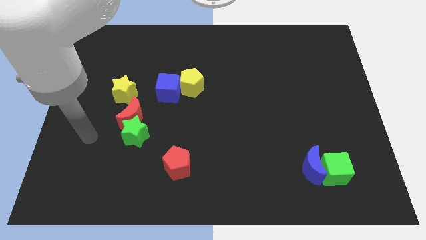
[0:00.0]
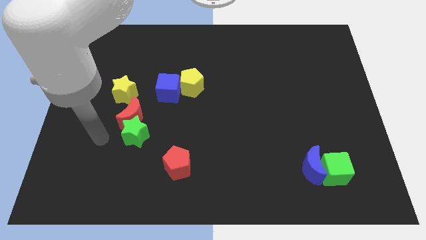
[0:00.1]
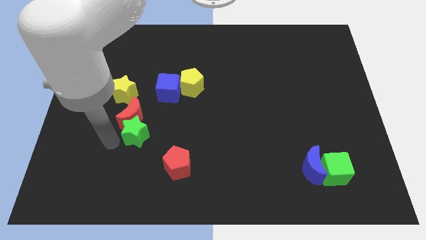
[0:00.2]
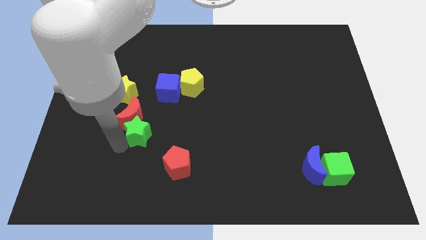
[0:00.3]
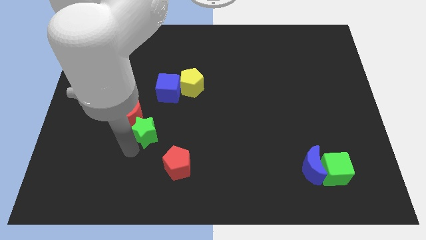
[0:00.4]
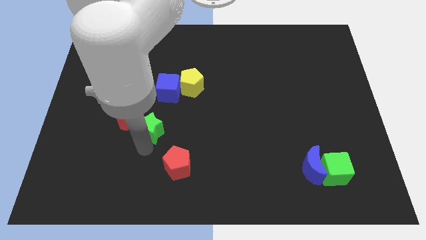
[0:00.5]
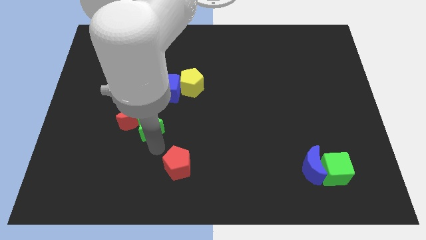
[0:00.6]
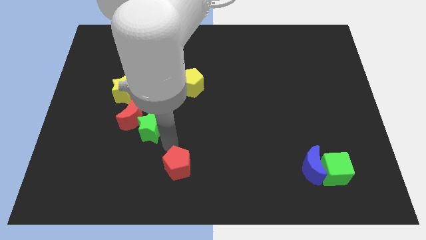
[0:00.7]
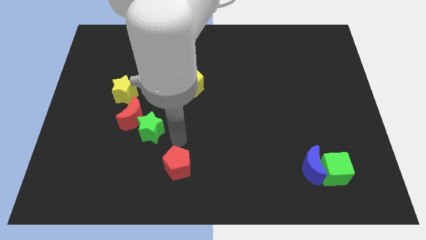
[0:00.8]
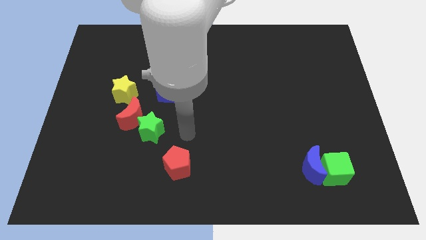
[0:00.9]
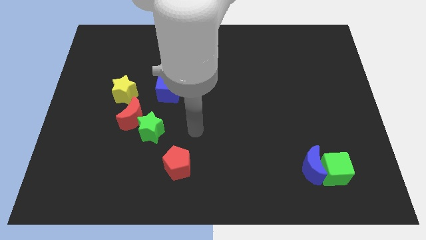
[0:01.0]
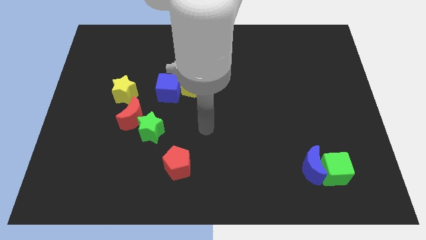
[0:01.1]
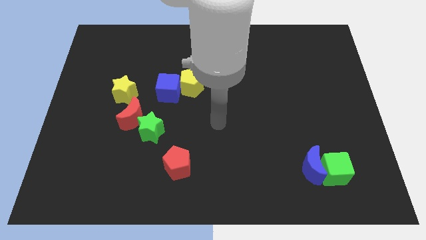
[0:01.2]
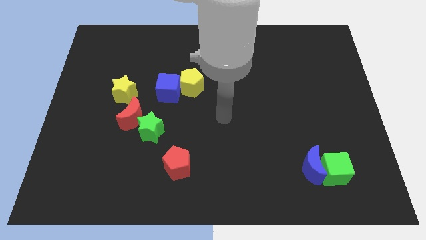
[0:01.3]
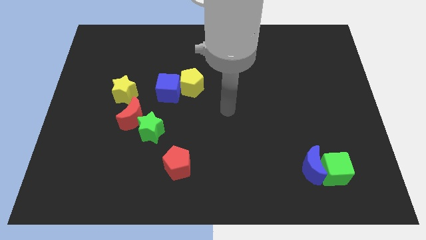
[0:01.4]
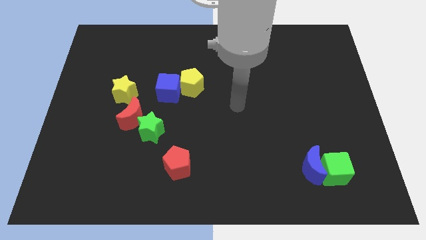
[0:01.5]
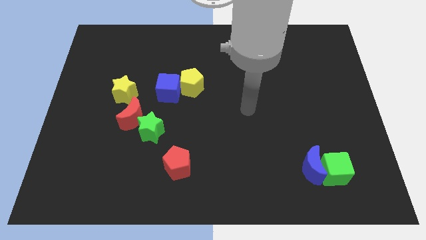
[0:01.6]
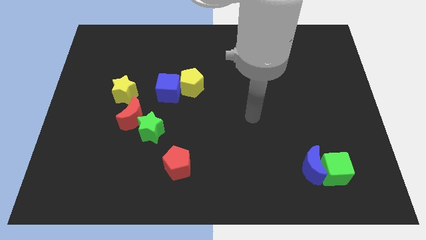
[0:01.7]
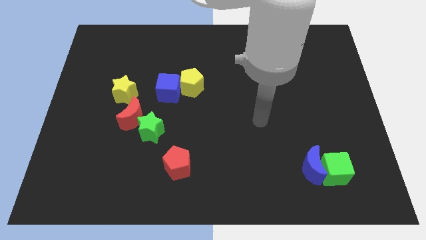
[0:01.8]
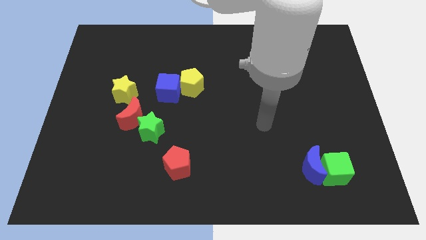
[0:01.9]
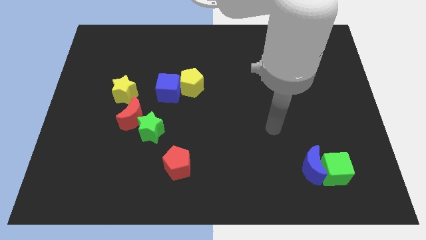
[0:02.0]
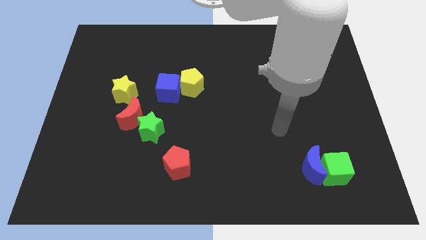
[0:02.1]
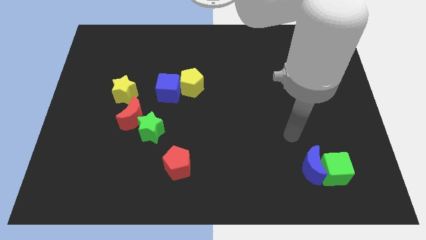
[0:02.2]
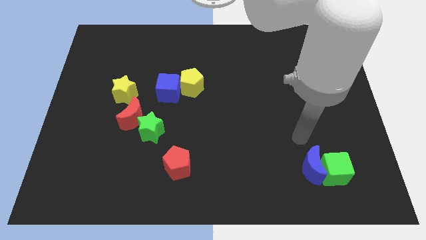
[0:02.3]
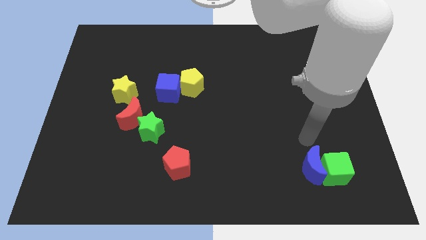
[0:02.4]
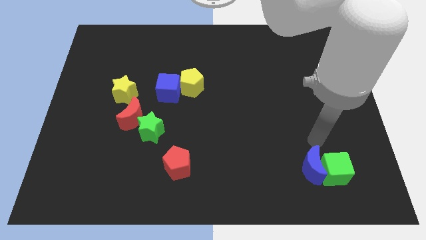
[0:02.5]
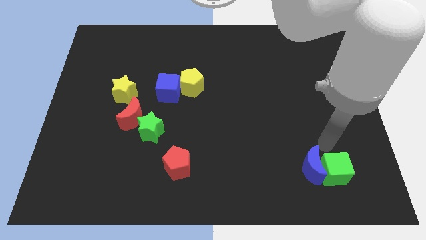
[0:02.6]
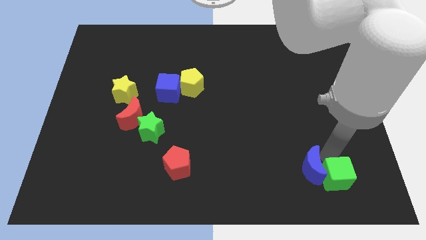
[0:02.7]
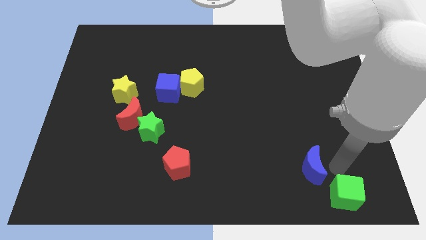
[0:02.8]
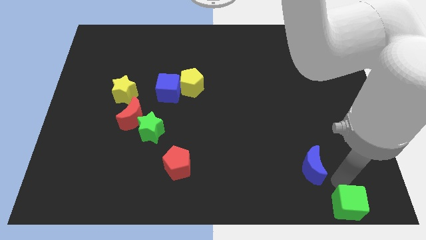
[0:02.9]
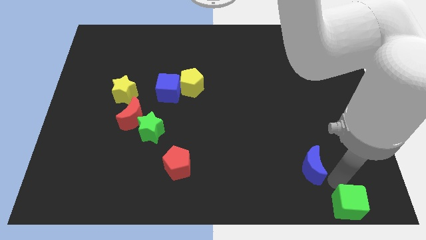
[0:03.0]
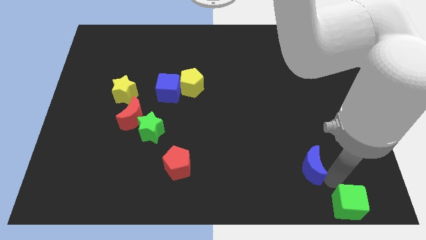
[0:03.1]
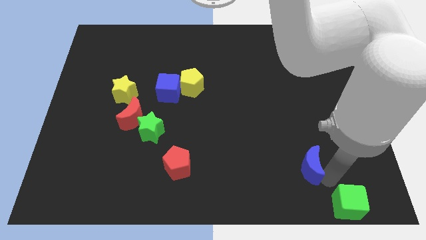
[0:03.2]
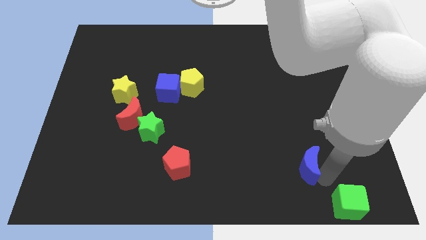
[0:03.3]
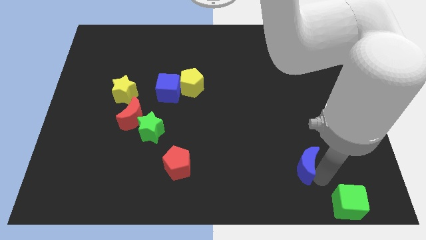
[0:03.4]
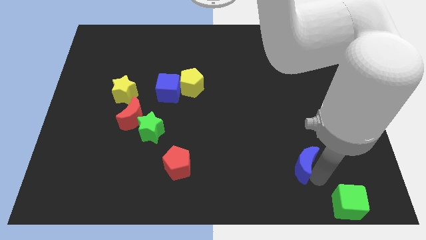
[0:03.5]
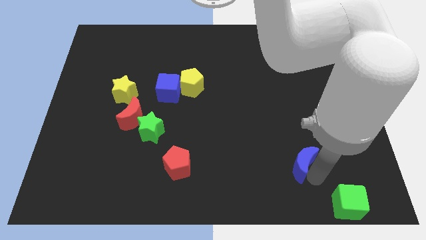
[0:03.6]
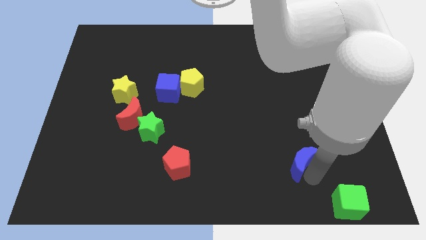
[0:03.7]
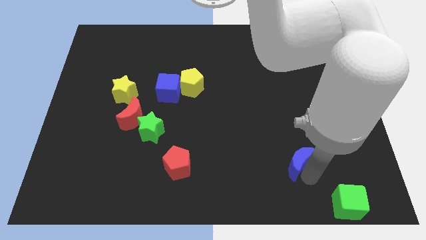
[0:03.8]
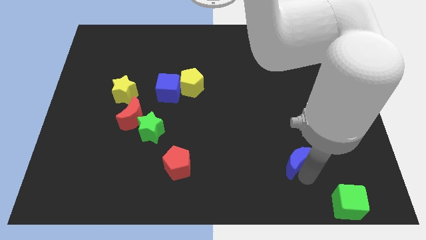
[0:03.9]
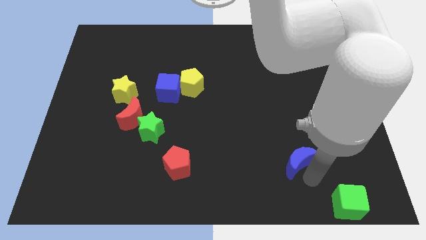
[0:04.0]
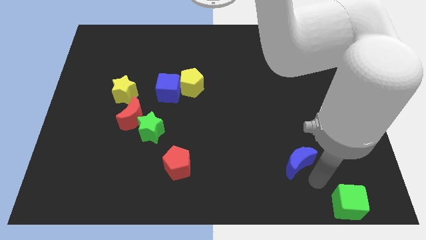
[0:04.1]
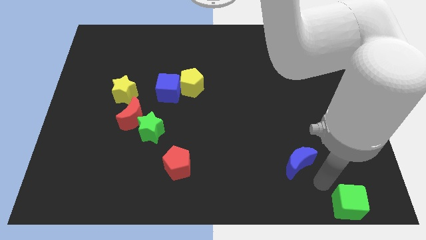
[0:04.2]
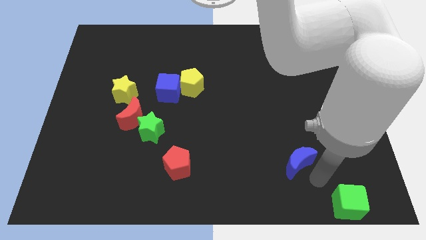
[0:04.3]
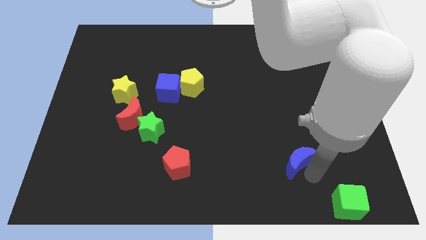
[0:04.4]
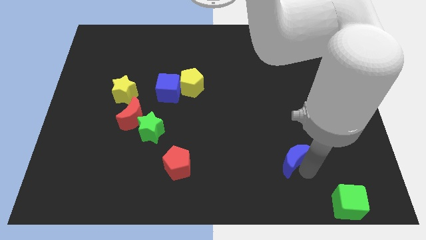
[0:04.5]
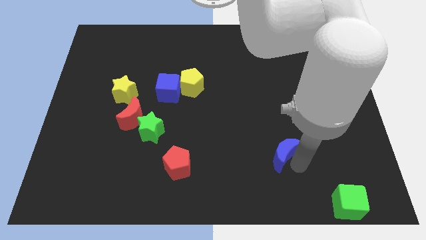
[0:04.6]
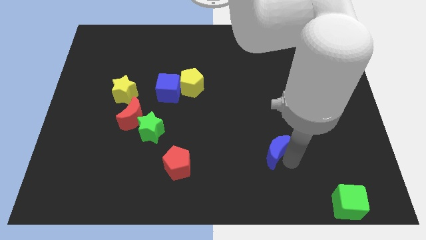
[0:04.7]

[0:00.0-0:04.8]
push the blue moon somewhat diagonally upwards and to the left

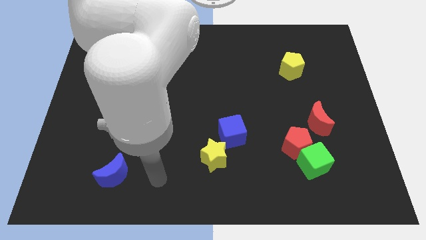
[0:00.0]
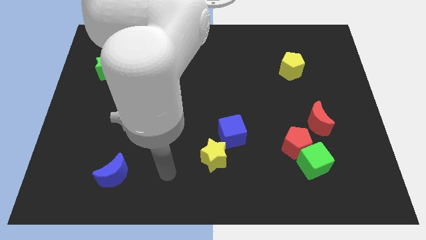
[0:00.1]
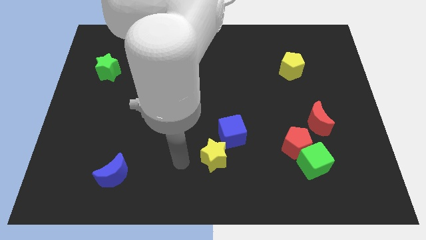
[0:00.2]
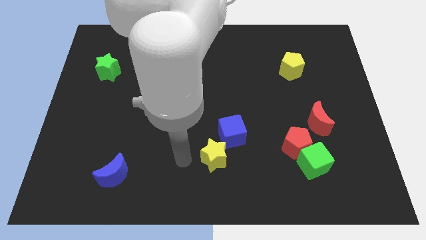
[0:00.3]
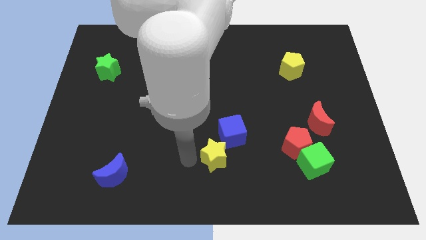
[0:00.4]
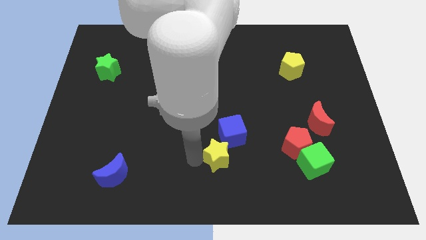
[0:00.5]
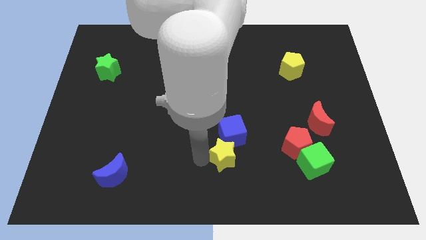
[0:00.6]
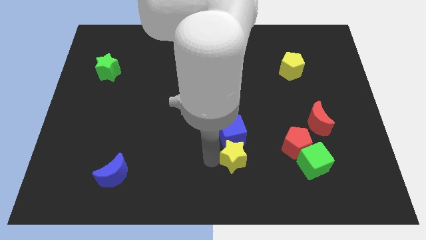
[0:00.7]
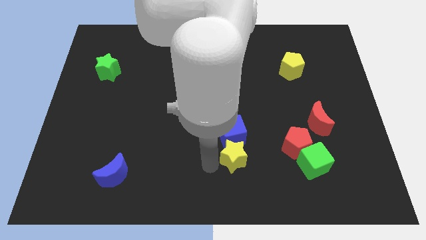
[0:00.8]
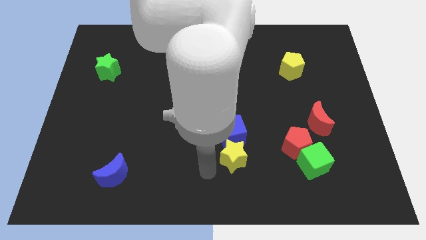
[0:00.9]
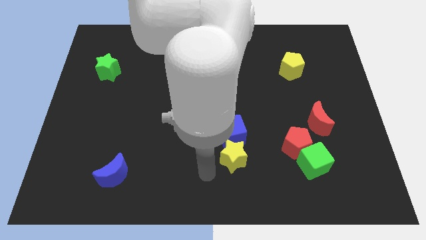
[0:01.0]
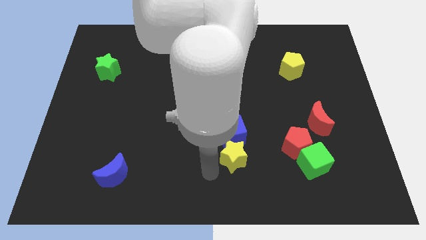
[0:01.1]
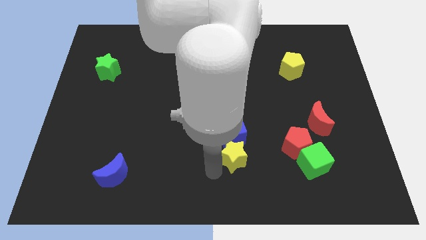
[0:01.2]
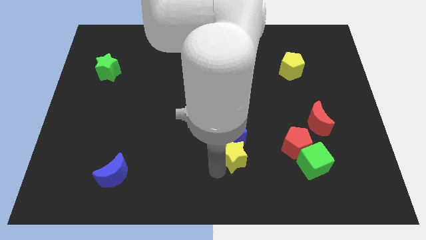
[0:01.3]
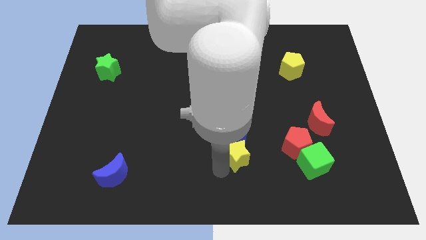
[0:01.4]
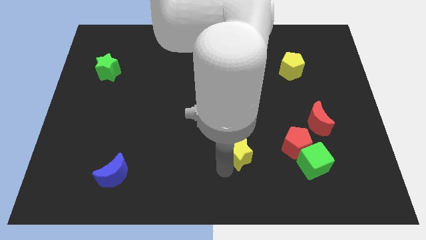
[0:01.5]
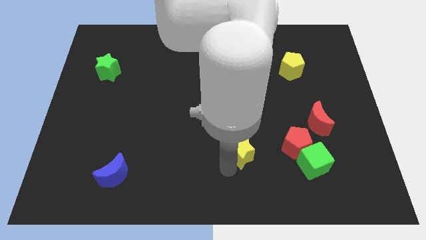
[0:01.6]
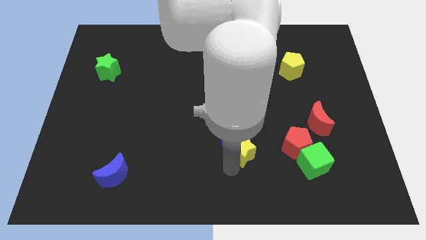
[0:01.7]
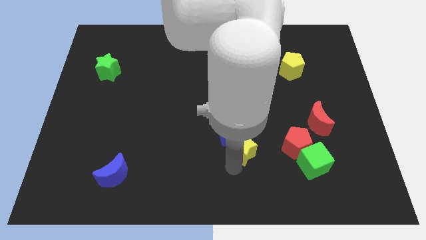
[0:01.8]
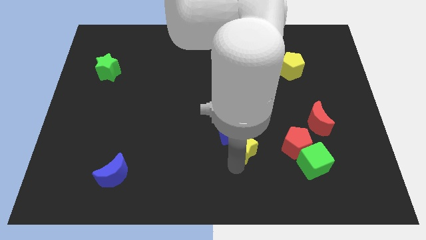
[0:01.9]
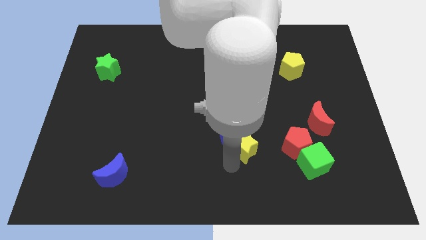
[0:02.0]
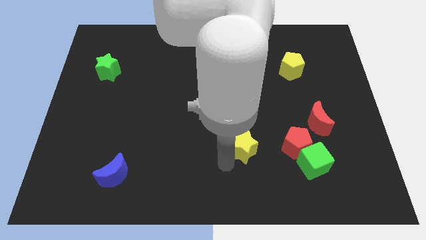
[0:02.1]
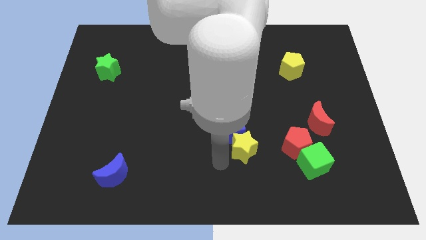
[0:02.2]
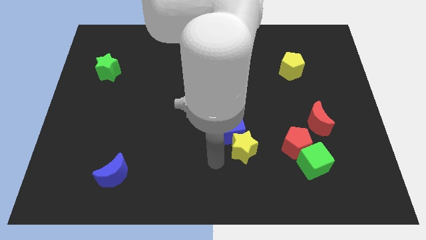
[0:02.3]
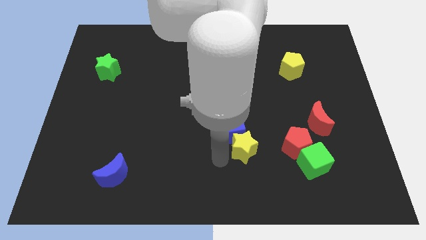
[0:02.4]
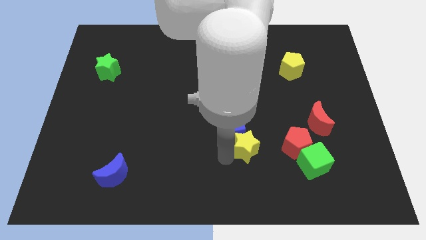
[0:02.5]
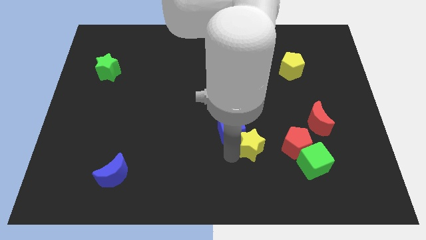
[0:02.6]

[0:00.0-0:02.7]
push the yellow star diagonally upwards and right a little

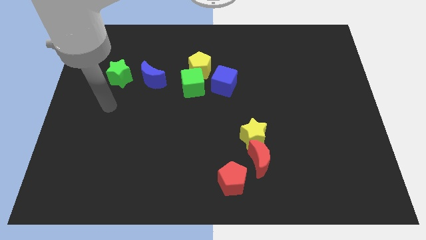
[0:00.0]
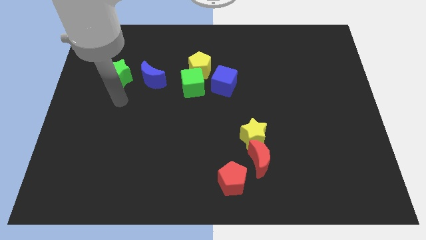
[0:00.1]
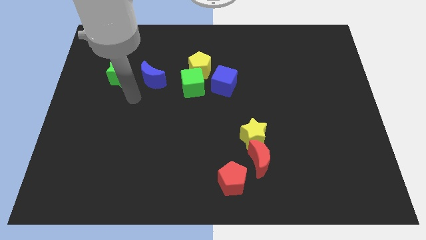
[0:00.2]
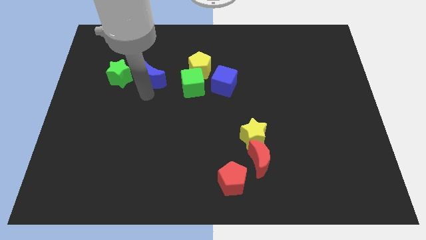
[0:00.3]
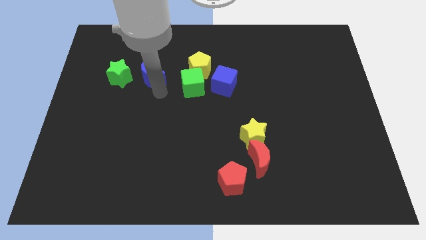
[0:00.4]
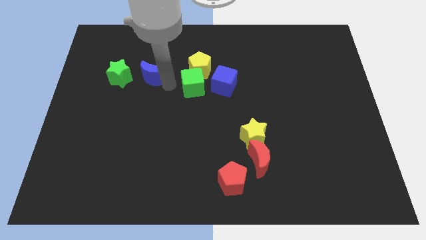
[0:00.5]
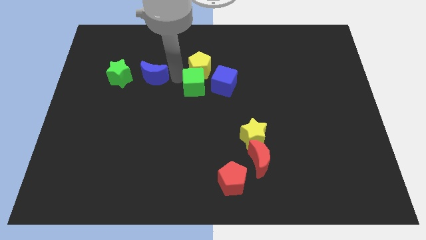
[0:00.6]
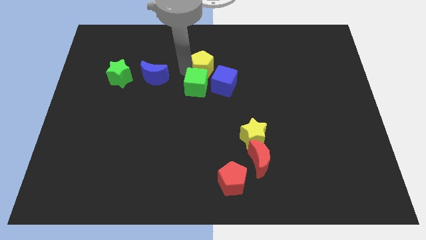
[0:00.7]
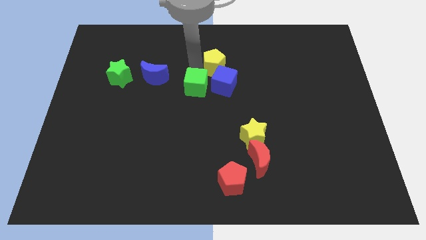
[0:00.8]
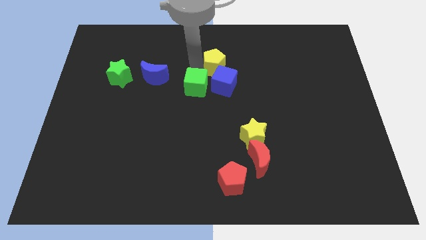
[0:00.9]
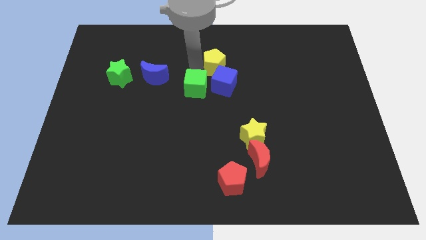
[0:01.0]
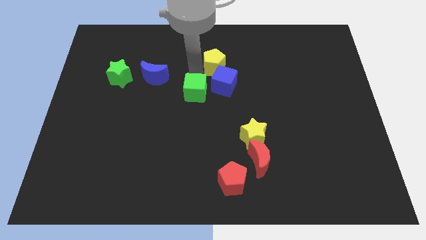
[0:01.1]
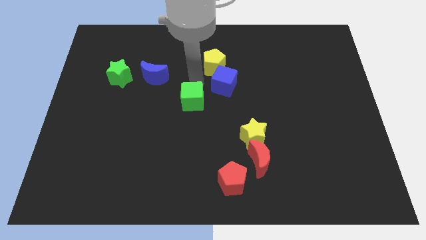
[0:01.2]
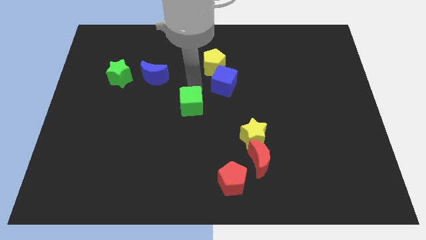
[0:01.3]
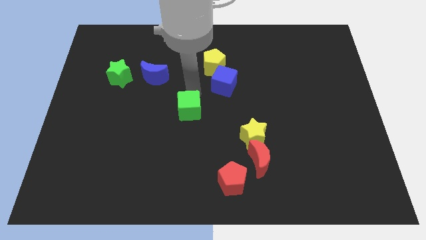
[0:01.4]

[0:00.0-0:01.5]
push the green cube downwards a little bit
